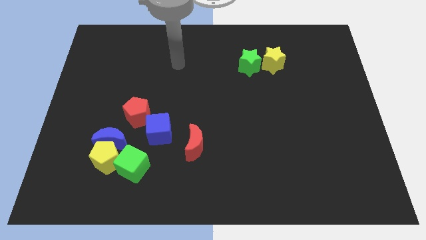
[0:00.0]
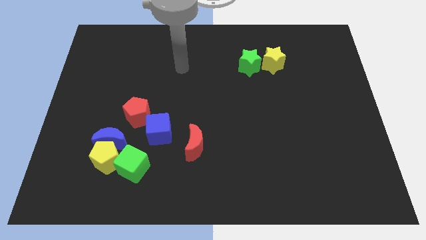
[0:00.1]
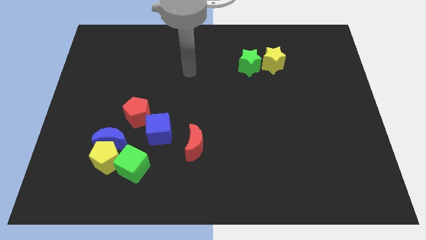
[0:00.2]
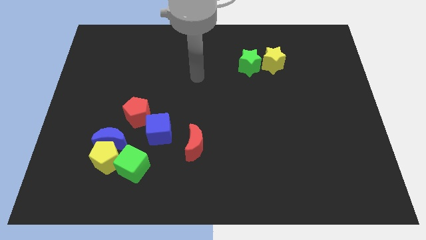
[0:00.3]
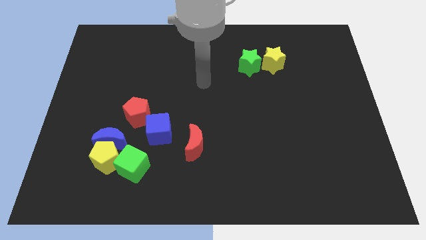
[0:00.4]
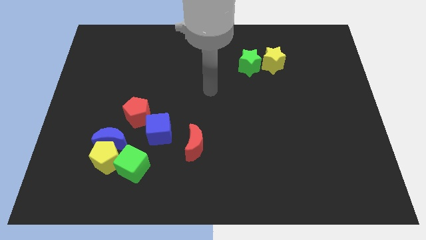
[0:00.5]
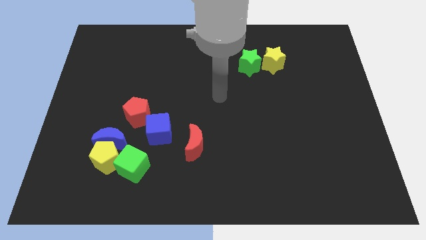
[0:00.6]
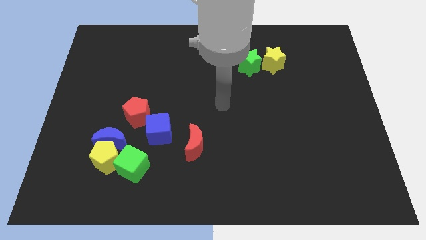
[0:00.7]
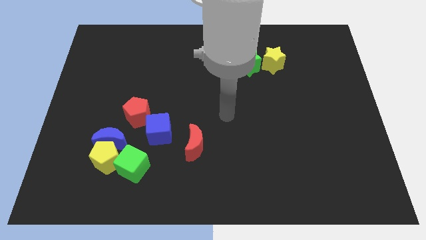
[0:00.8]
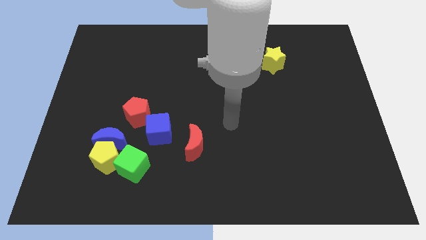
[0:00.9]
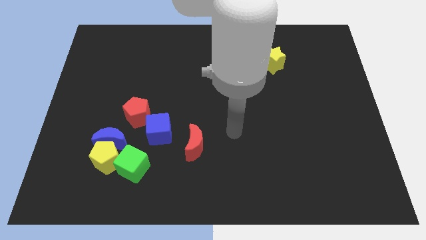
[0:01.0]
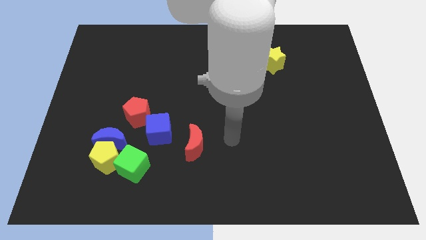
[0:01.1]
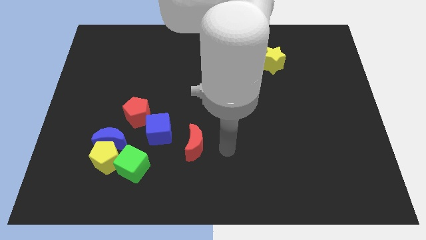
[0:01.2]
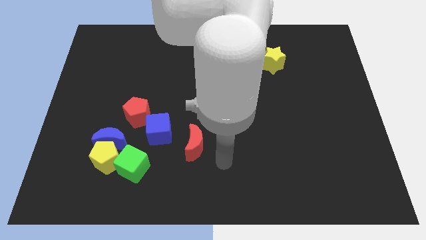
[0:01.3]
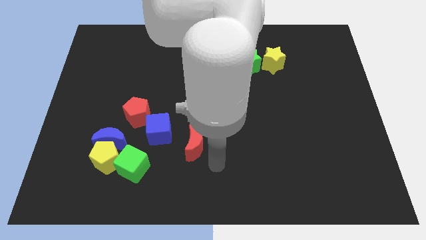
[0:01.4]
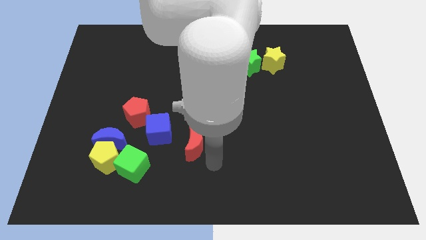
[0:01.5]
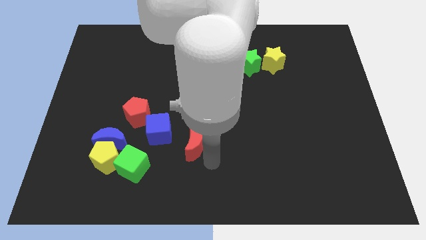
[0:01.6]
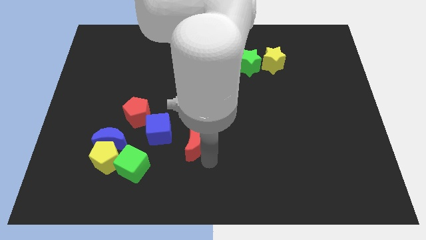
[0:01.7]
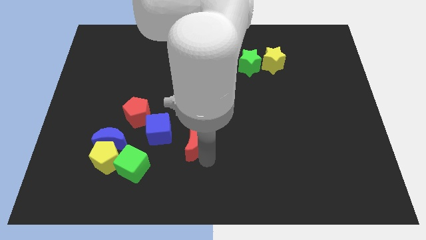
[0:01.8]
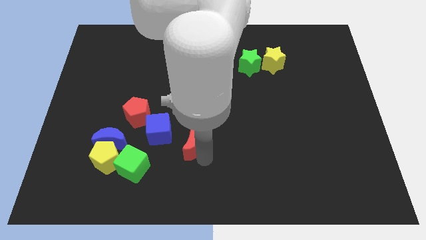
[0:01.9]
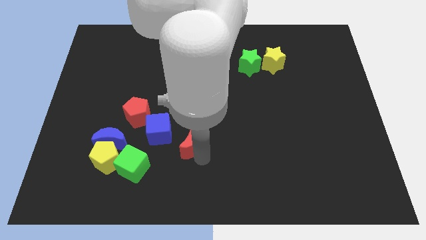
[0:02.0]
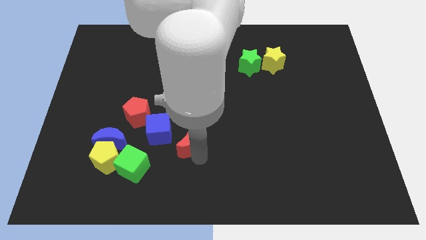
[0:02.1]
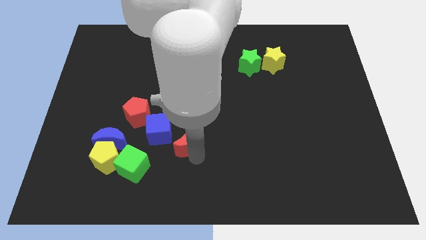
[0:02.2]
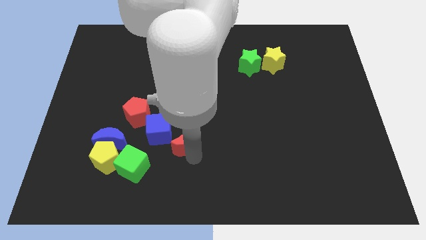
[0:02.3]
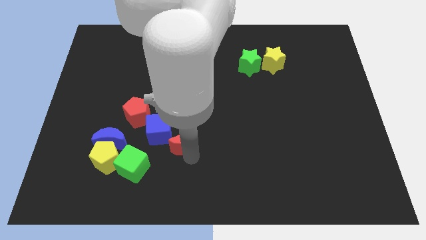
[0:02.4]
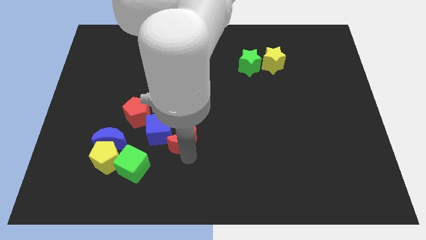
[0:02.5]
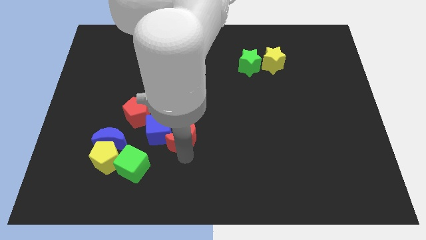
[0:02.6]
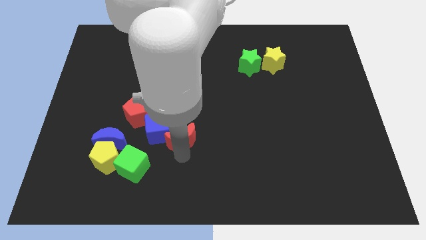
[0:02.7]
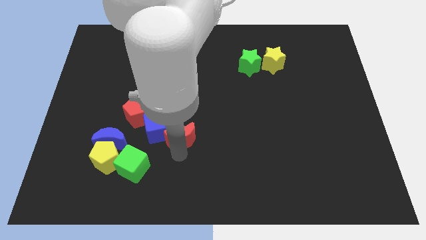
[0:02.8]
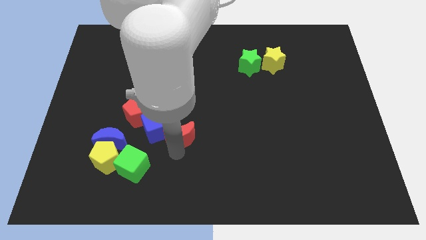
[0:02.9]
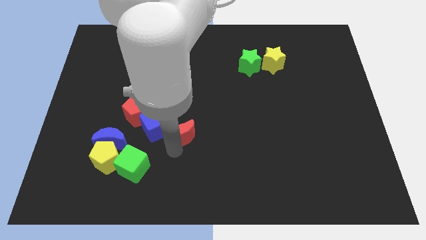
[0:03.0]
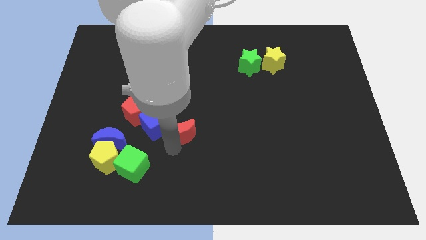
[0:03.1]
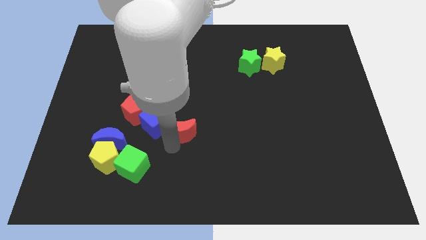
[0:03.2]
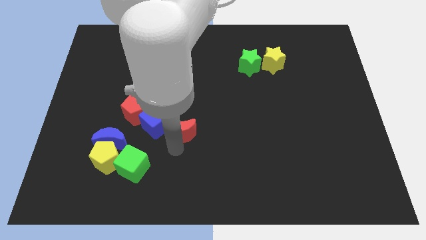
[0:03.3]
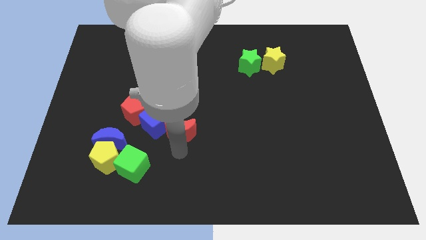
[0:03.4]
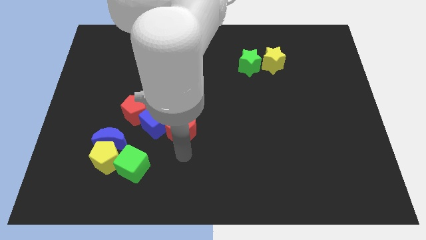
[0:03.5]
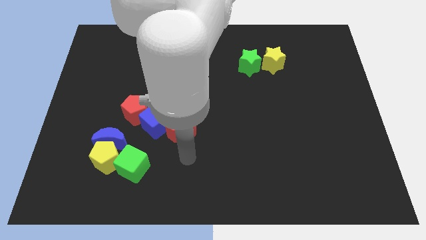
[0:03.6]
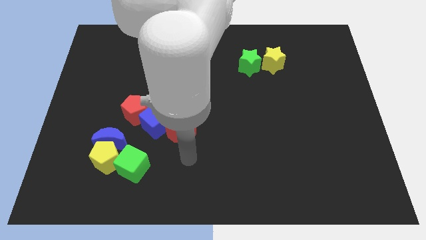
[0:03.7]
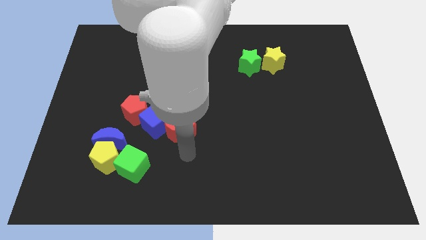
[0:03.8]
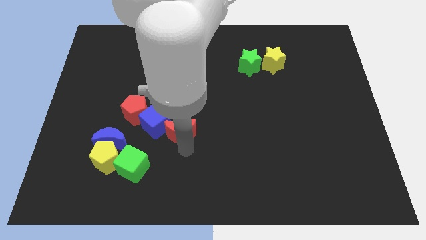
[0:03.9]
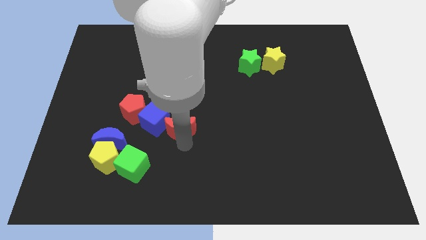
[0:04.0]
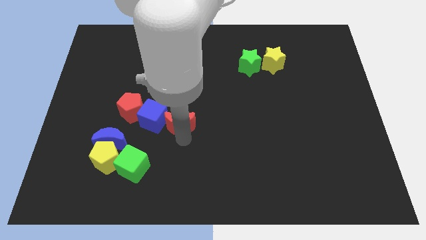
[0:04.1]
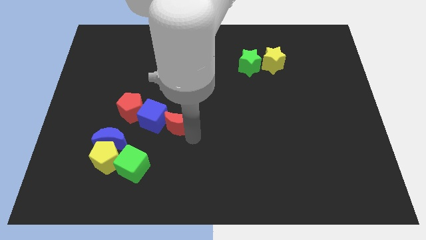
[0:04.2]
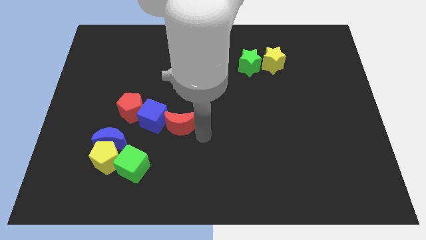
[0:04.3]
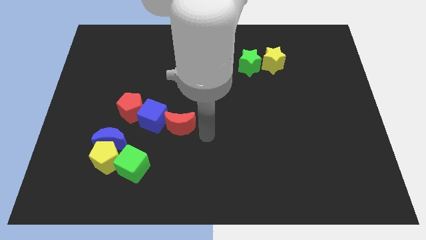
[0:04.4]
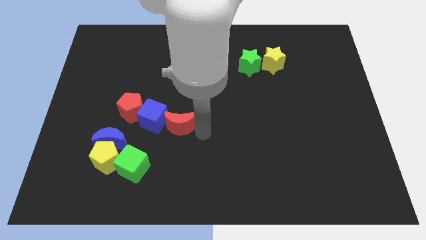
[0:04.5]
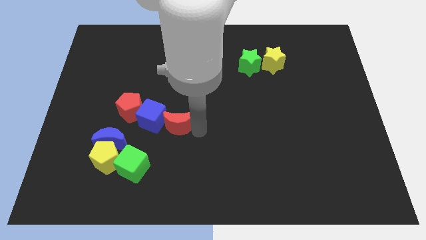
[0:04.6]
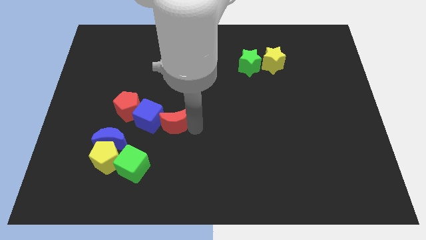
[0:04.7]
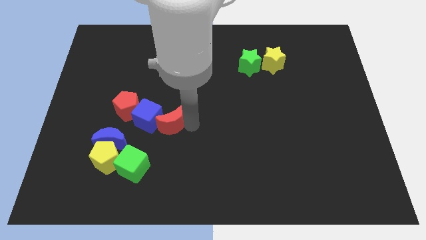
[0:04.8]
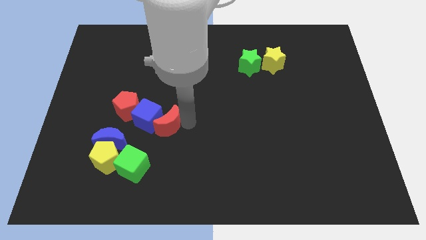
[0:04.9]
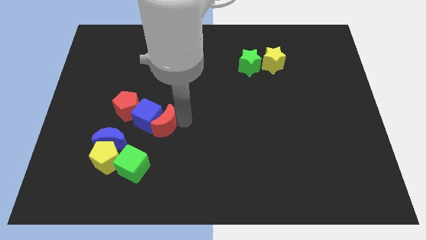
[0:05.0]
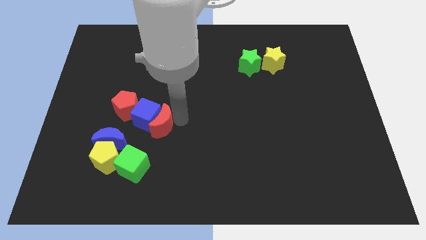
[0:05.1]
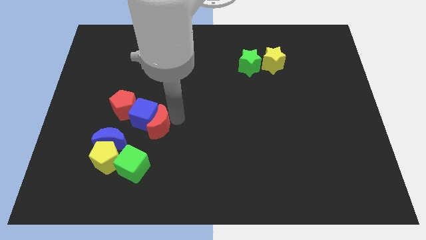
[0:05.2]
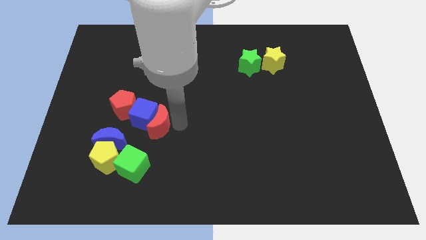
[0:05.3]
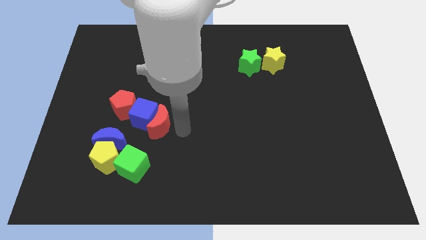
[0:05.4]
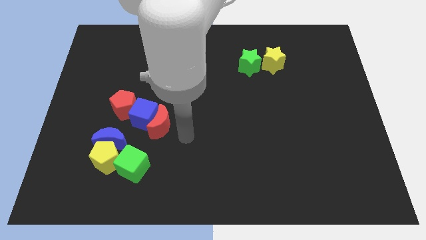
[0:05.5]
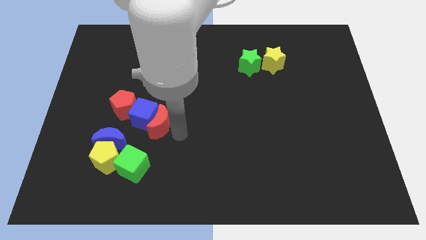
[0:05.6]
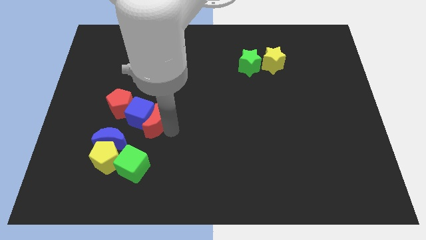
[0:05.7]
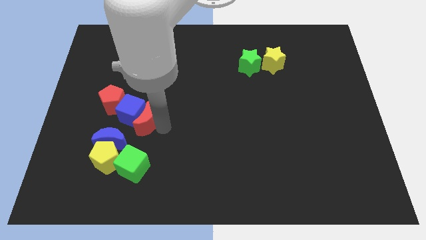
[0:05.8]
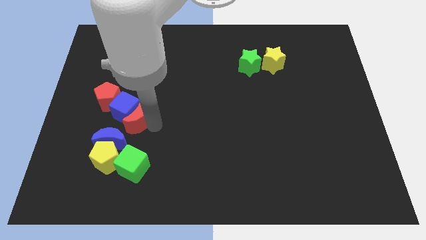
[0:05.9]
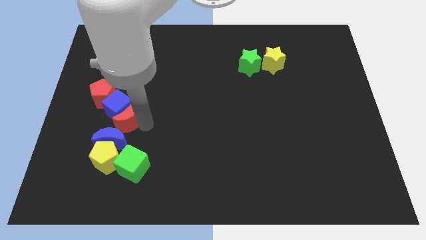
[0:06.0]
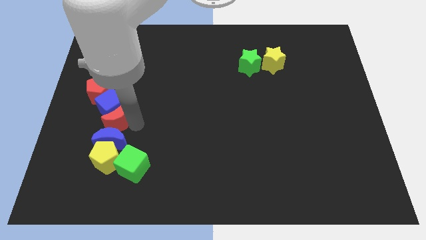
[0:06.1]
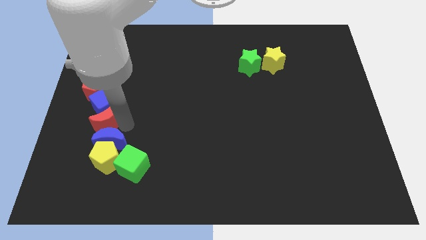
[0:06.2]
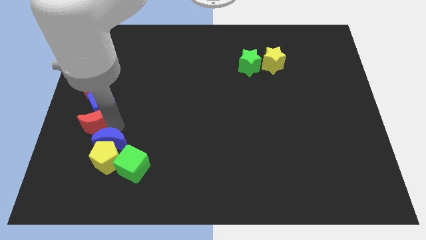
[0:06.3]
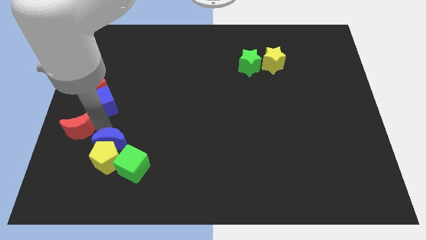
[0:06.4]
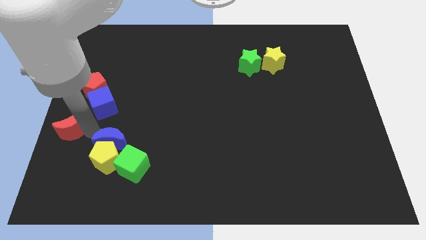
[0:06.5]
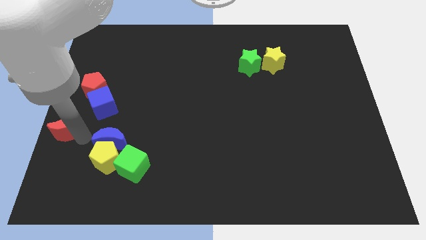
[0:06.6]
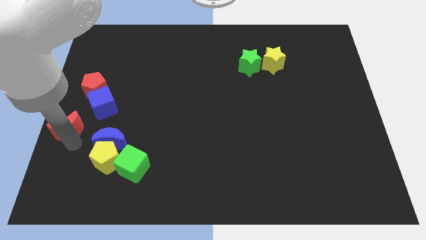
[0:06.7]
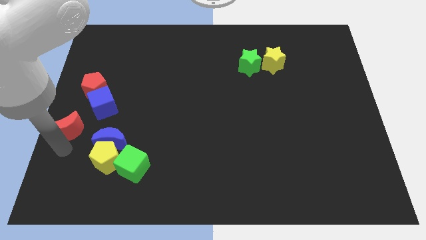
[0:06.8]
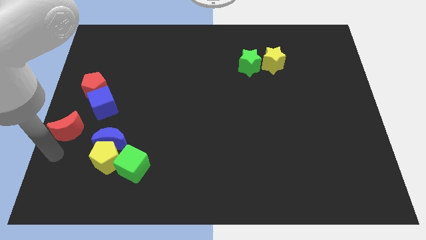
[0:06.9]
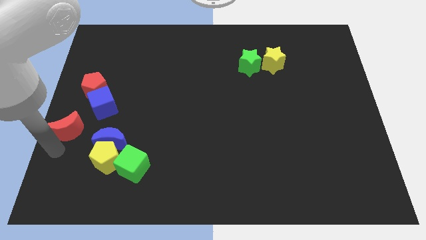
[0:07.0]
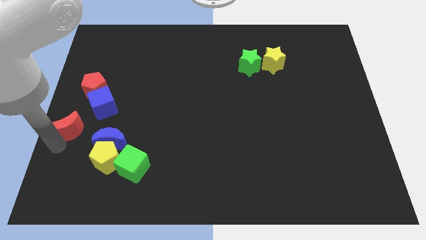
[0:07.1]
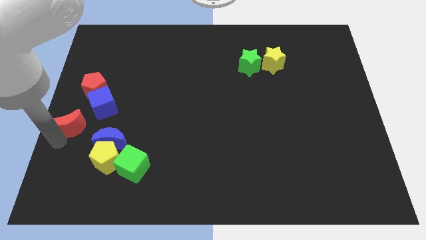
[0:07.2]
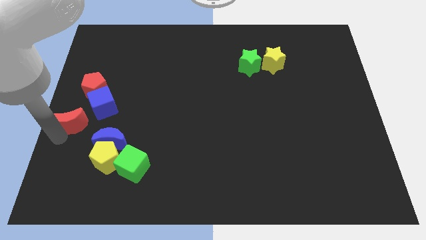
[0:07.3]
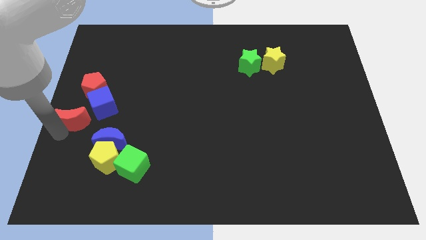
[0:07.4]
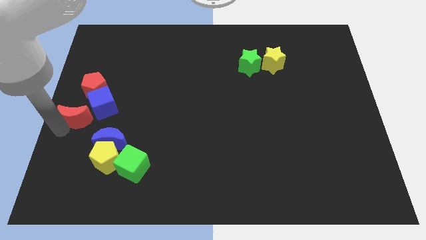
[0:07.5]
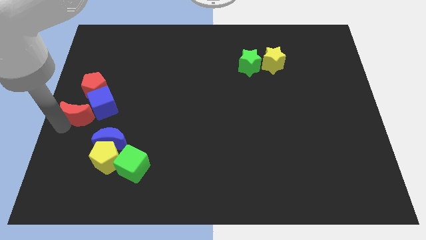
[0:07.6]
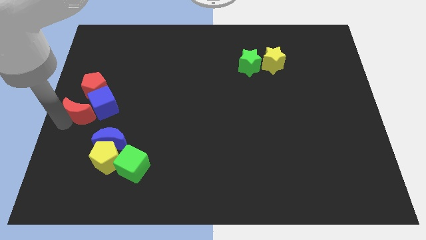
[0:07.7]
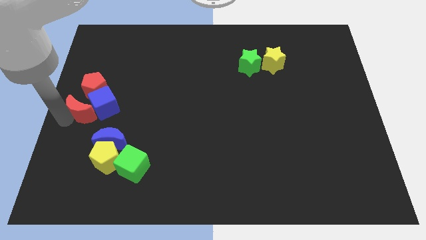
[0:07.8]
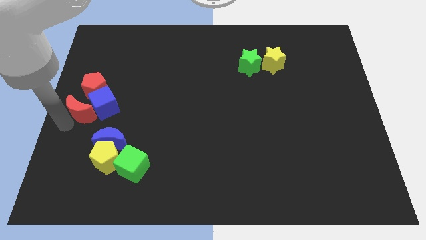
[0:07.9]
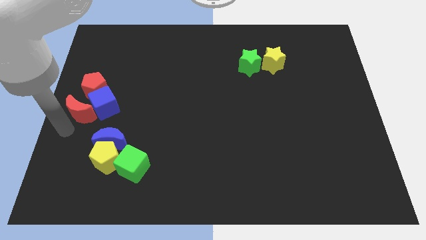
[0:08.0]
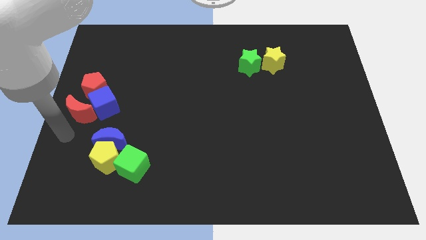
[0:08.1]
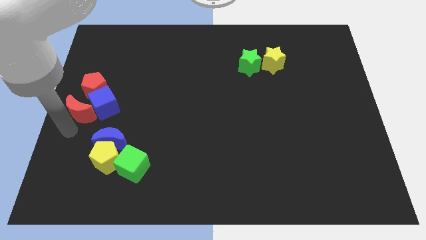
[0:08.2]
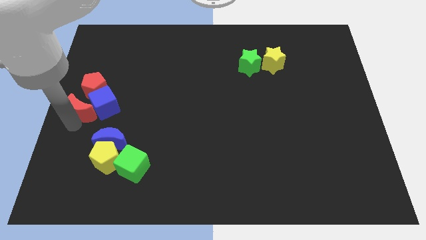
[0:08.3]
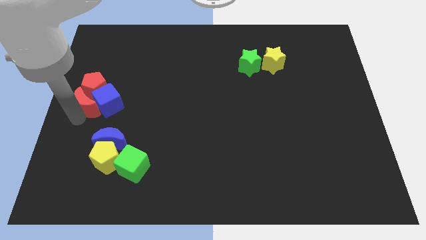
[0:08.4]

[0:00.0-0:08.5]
move the red moon to the red pentagon
